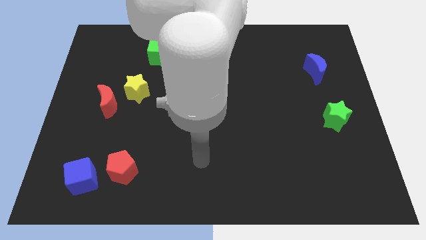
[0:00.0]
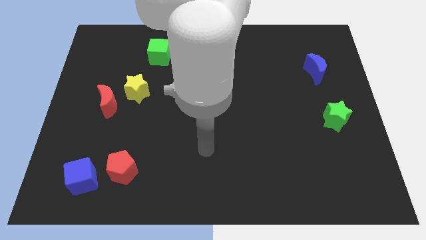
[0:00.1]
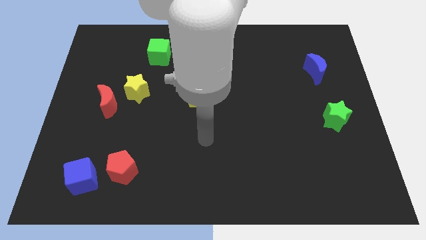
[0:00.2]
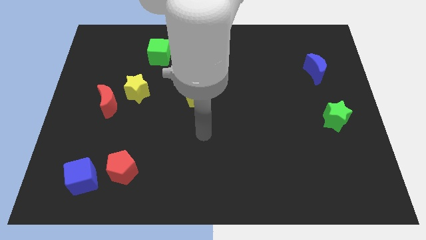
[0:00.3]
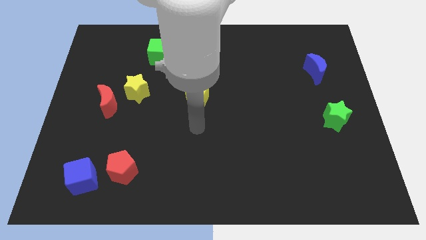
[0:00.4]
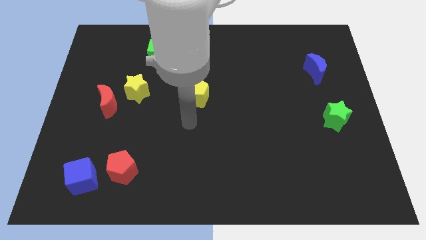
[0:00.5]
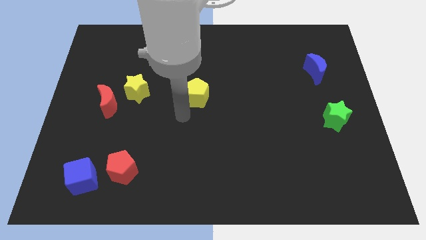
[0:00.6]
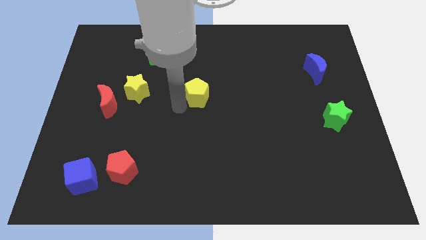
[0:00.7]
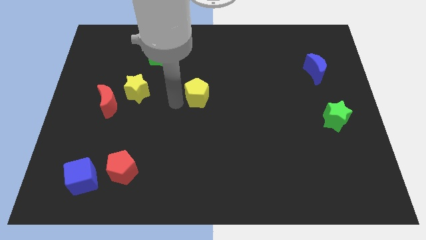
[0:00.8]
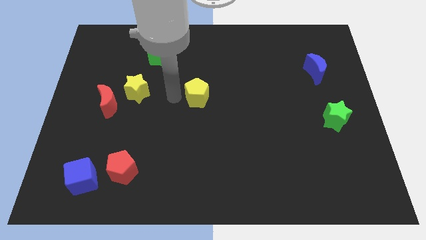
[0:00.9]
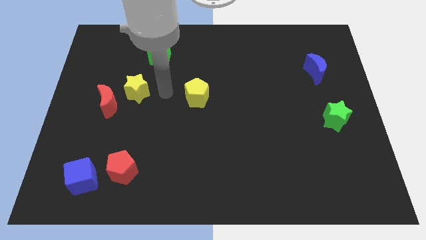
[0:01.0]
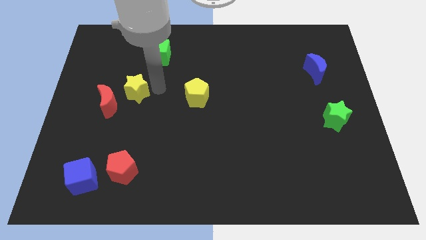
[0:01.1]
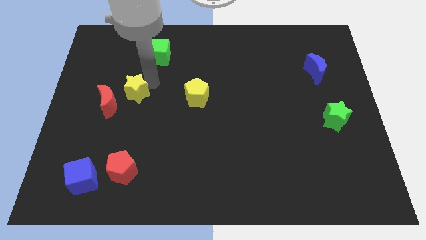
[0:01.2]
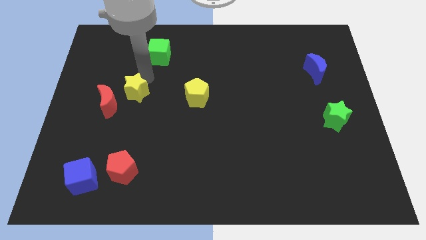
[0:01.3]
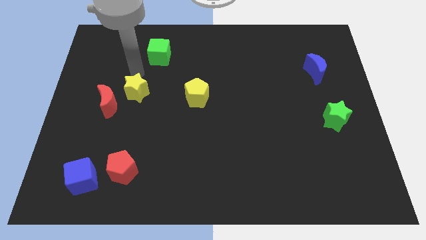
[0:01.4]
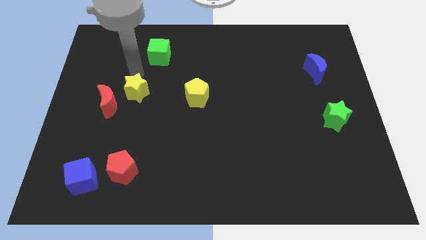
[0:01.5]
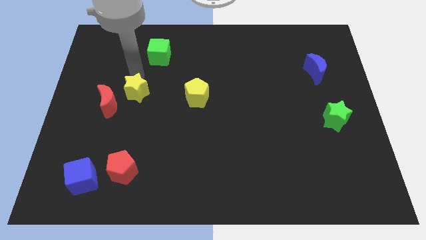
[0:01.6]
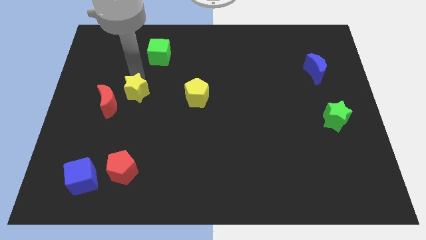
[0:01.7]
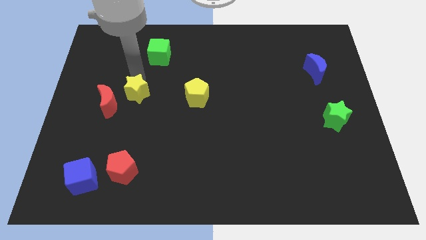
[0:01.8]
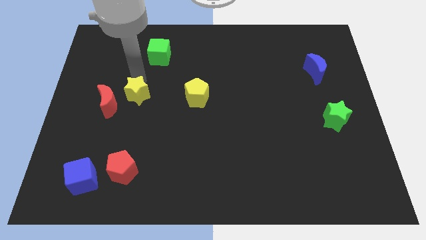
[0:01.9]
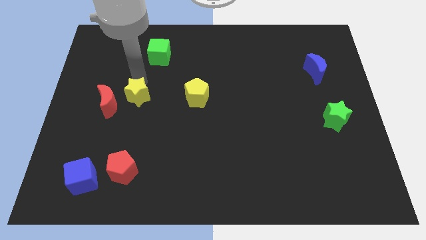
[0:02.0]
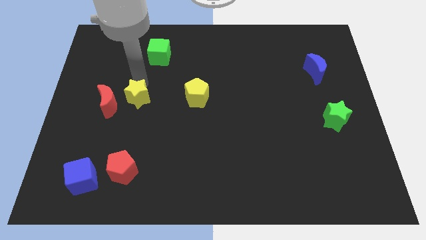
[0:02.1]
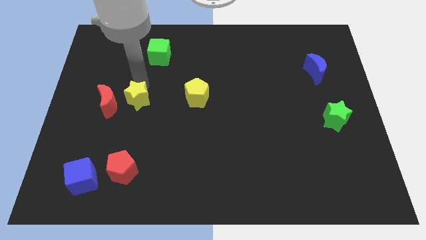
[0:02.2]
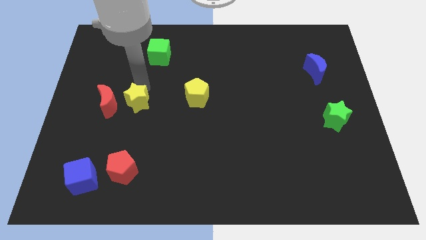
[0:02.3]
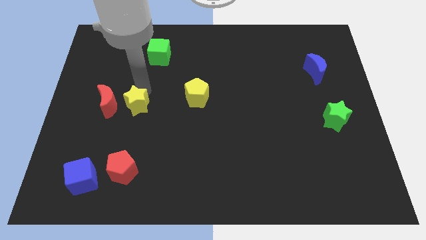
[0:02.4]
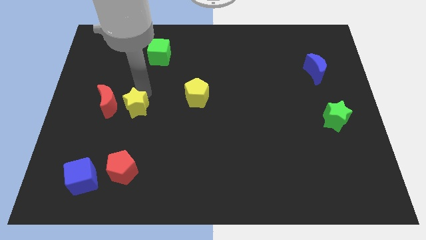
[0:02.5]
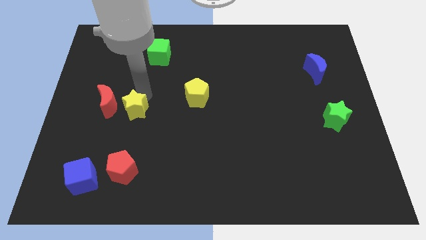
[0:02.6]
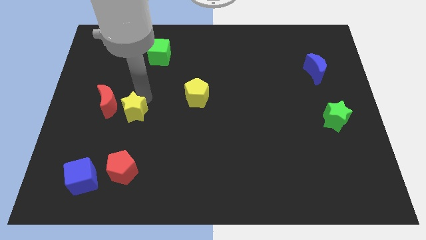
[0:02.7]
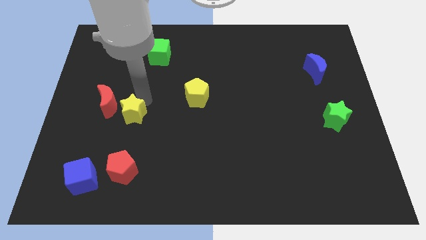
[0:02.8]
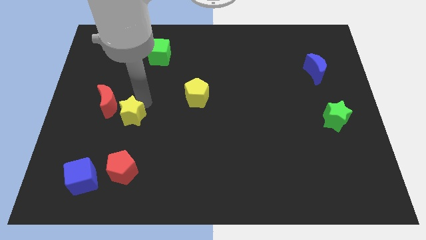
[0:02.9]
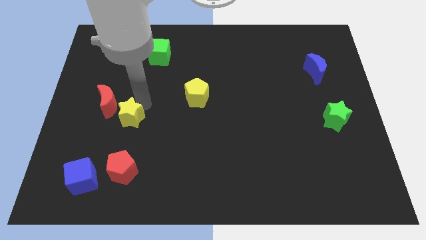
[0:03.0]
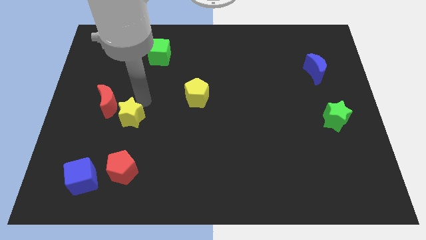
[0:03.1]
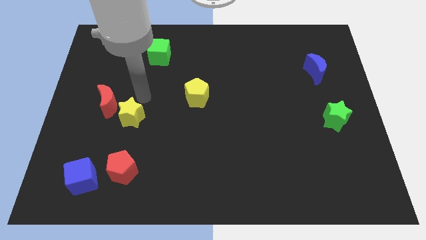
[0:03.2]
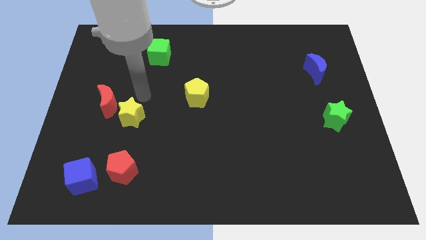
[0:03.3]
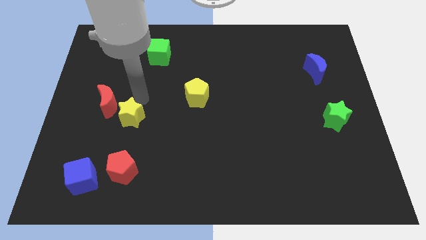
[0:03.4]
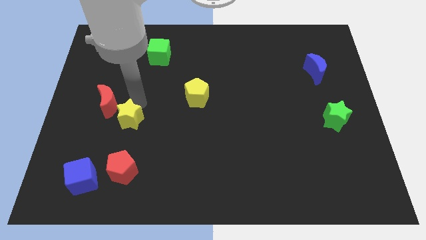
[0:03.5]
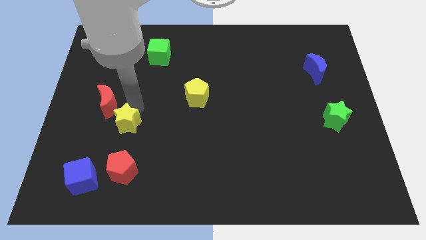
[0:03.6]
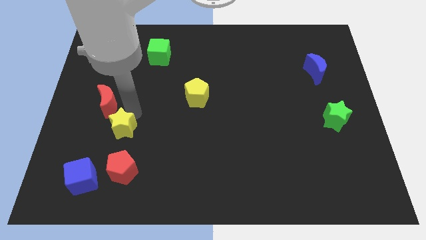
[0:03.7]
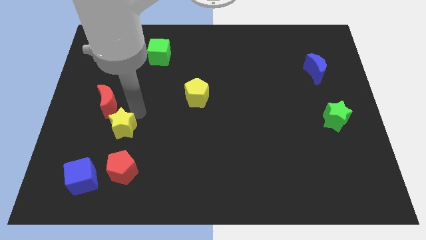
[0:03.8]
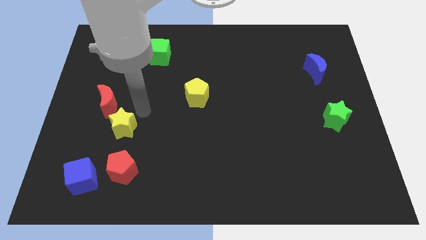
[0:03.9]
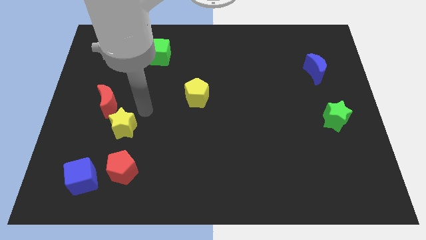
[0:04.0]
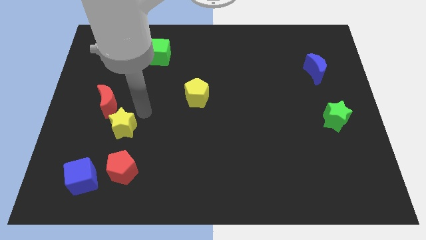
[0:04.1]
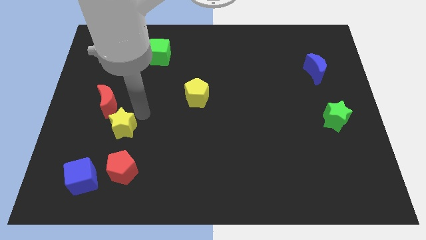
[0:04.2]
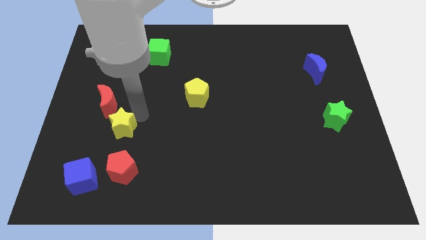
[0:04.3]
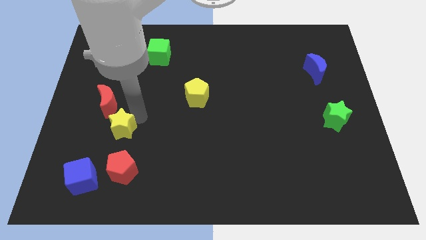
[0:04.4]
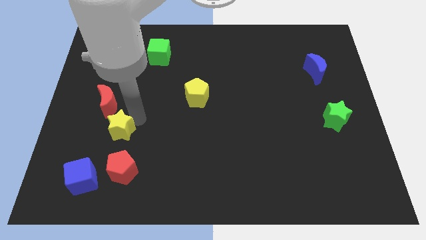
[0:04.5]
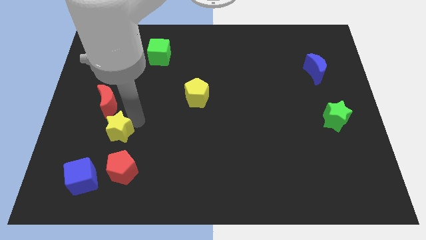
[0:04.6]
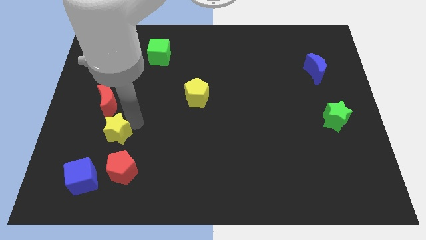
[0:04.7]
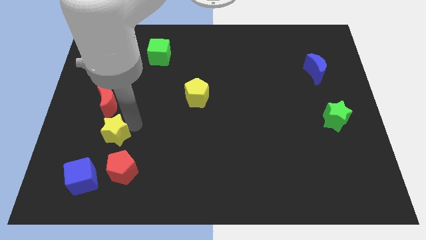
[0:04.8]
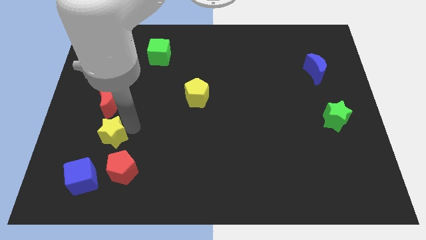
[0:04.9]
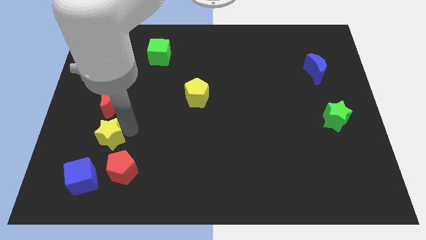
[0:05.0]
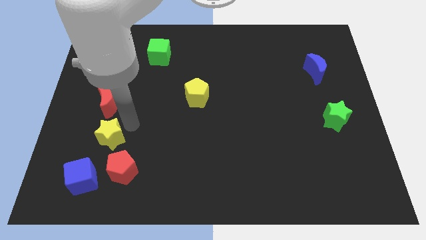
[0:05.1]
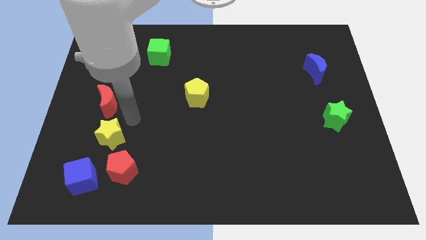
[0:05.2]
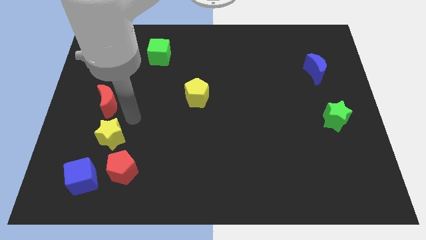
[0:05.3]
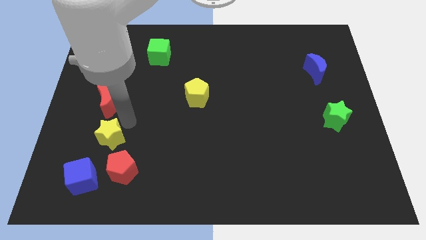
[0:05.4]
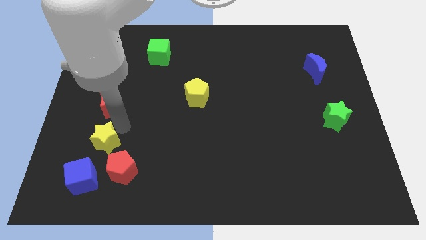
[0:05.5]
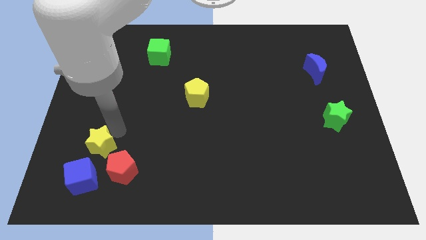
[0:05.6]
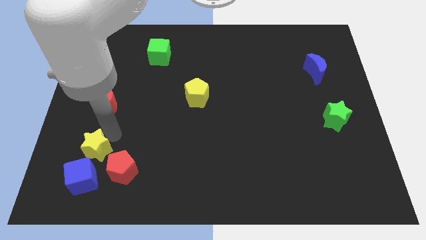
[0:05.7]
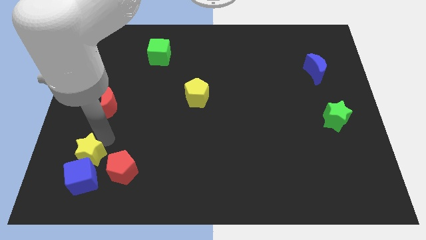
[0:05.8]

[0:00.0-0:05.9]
push the yellow star next to the blue cube

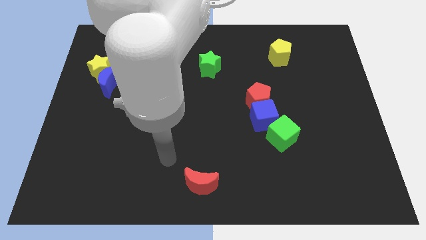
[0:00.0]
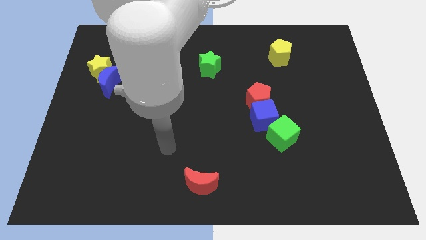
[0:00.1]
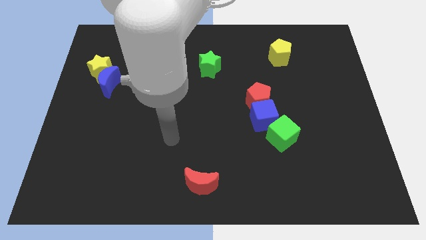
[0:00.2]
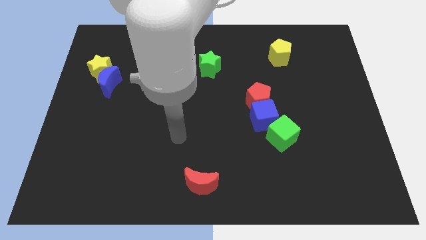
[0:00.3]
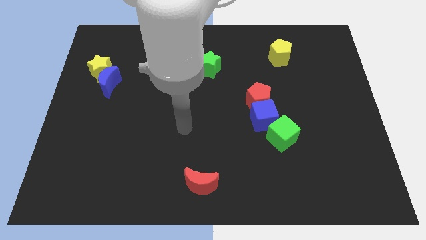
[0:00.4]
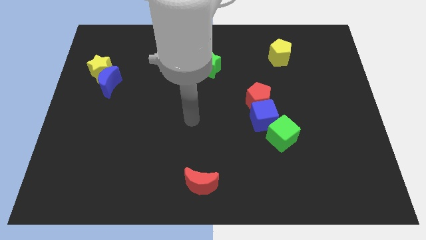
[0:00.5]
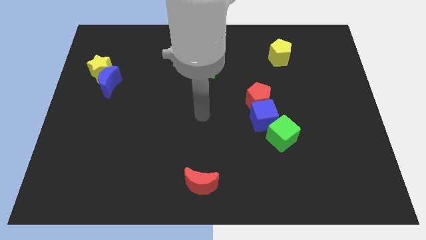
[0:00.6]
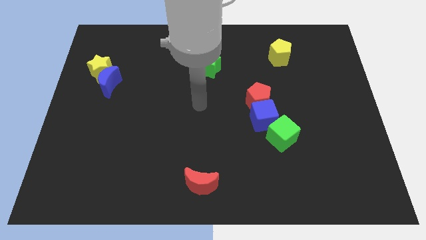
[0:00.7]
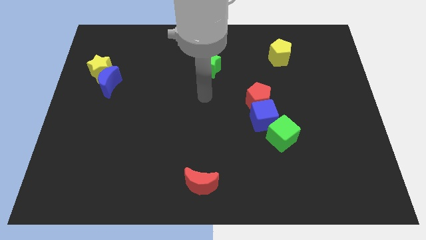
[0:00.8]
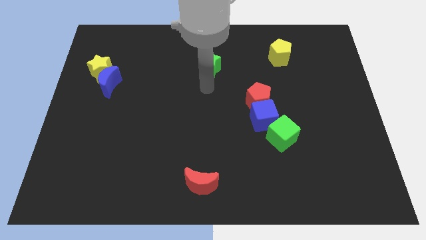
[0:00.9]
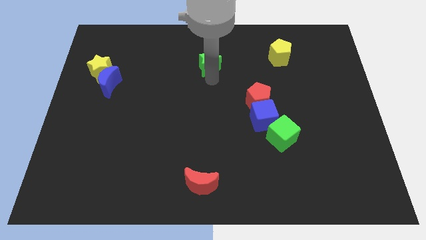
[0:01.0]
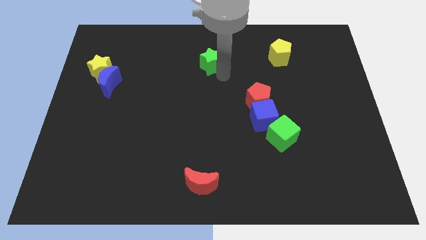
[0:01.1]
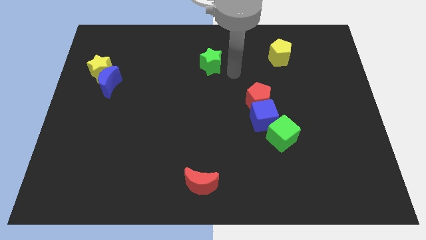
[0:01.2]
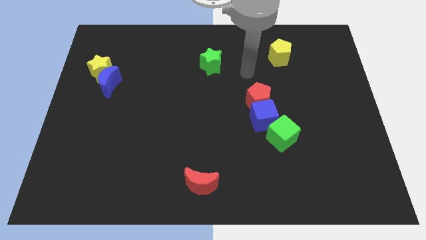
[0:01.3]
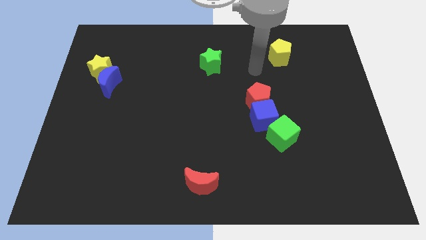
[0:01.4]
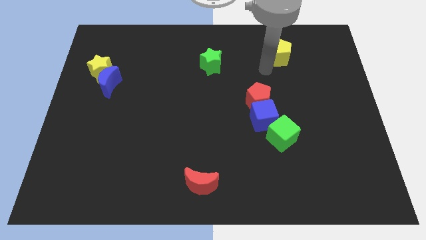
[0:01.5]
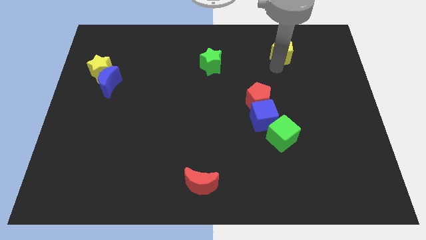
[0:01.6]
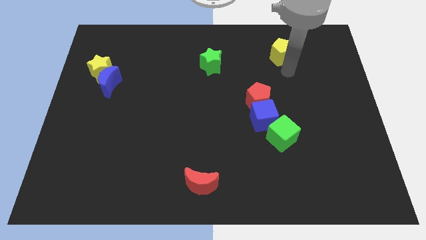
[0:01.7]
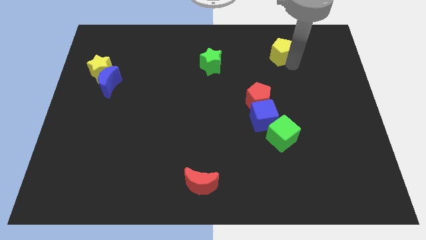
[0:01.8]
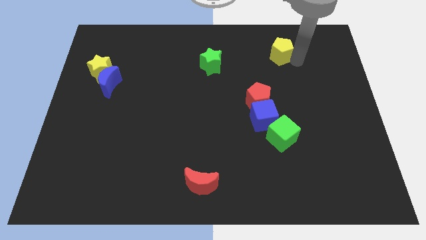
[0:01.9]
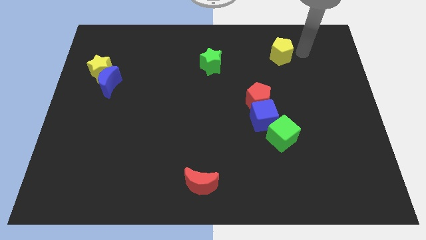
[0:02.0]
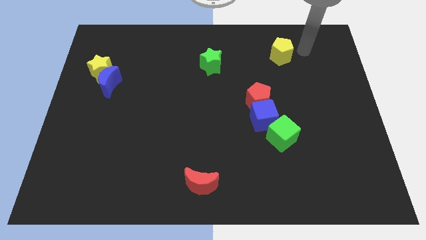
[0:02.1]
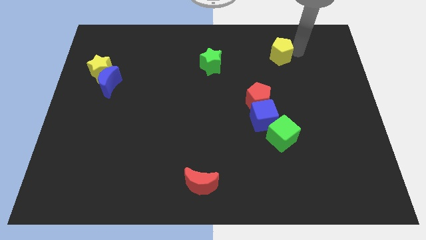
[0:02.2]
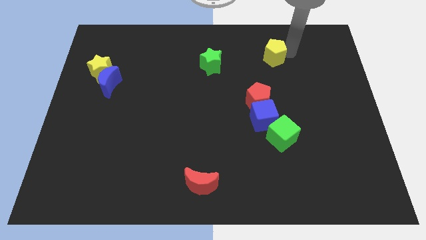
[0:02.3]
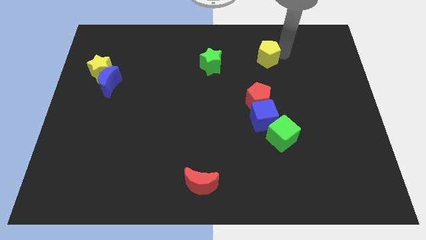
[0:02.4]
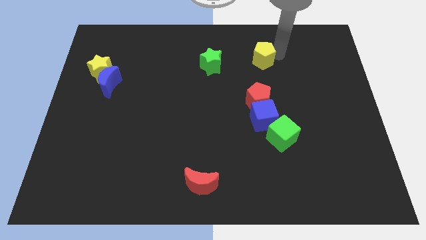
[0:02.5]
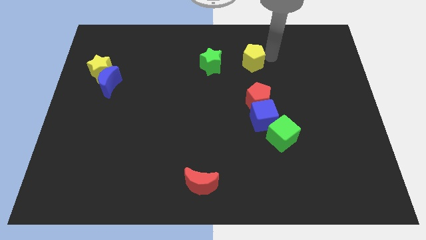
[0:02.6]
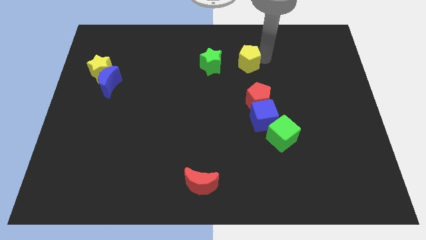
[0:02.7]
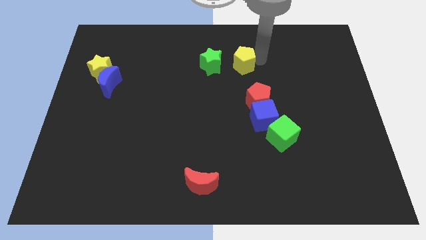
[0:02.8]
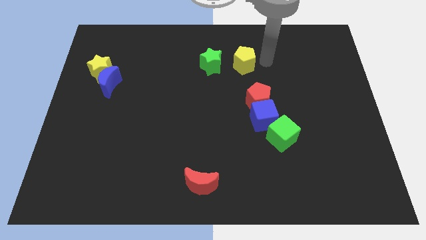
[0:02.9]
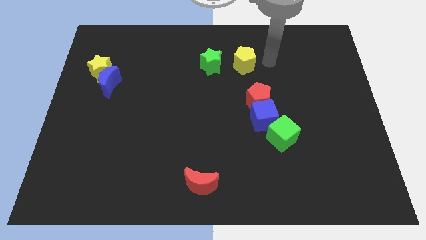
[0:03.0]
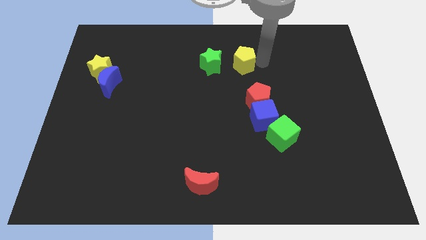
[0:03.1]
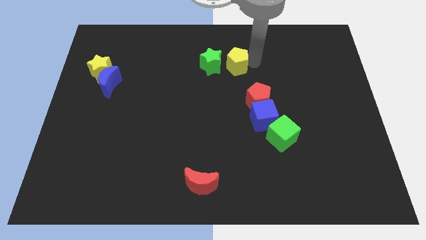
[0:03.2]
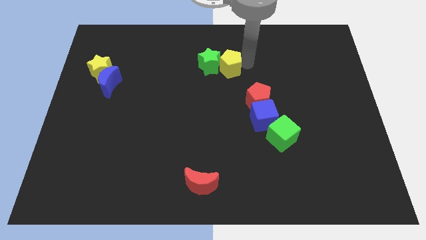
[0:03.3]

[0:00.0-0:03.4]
push the yellow pentagon close to the green star
